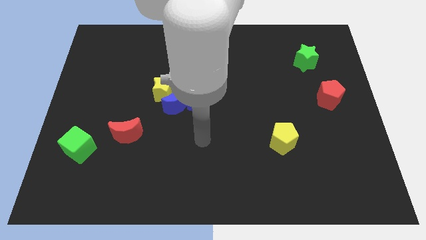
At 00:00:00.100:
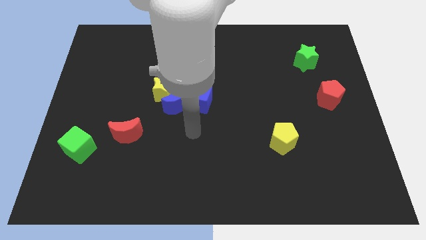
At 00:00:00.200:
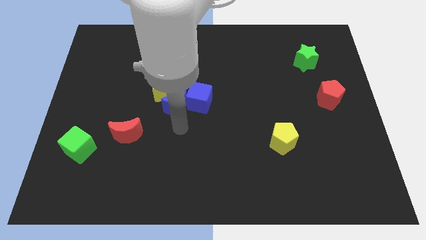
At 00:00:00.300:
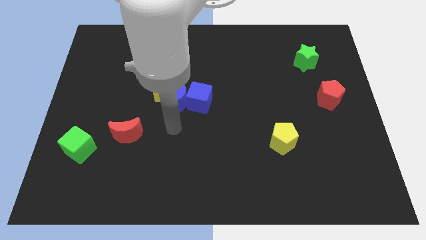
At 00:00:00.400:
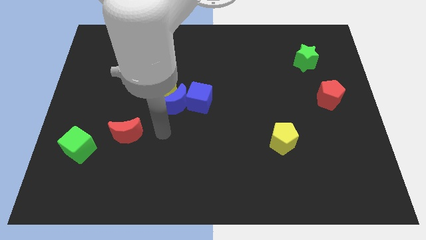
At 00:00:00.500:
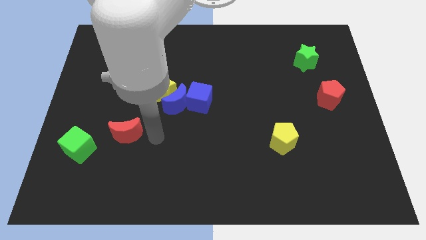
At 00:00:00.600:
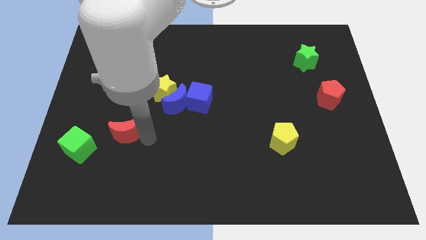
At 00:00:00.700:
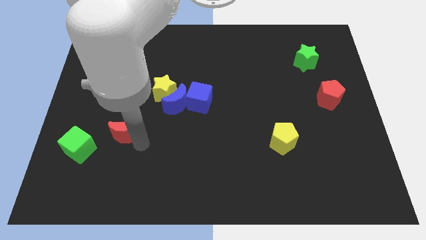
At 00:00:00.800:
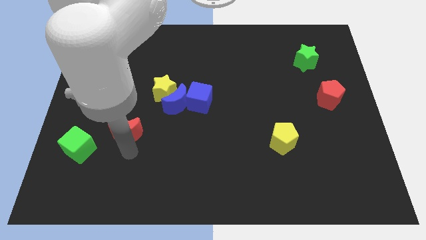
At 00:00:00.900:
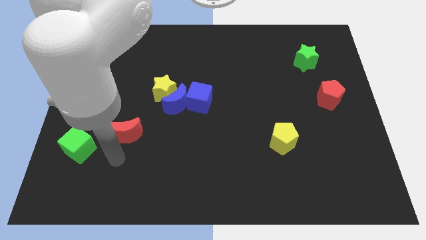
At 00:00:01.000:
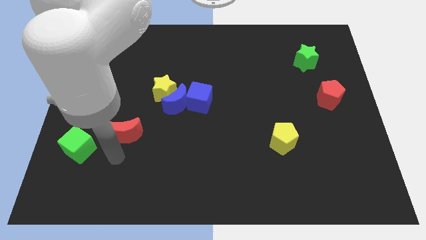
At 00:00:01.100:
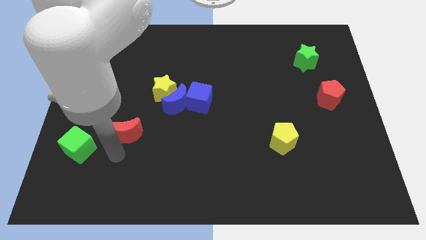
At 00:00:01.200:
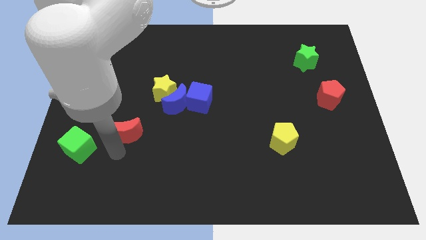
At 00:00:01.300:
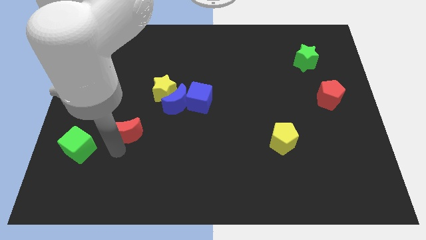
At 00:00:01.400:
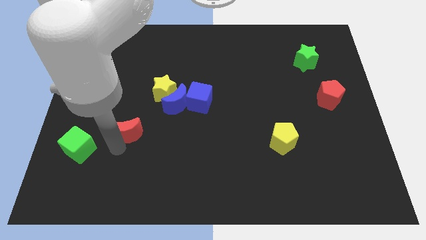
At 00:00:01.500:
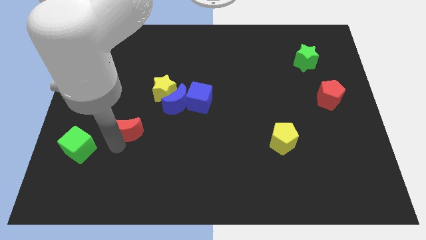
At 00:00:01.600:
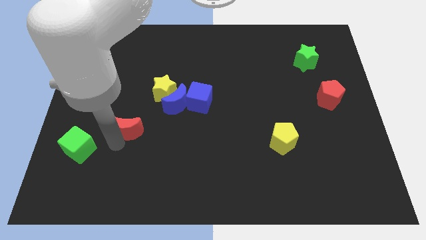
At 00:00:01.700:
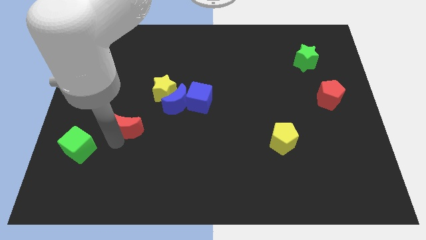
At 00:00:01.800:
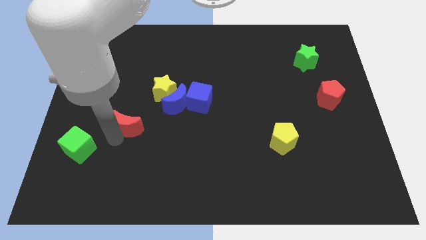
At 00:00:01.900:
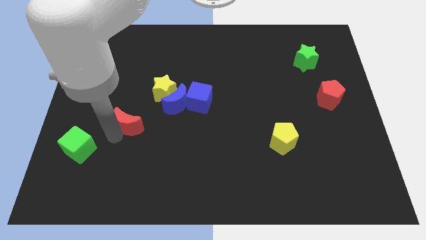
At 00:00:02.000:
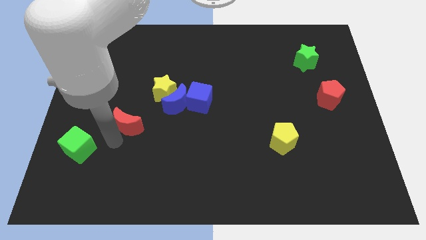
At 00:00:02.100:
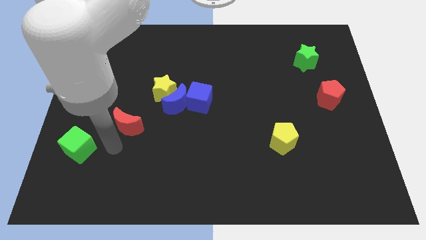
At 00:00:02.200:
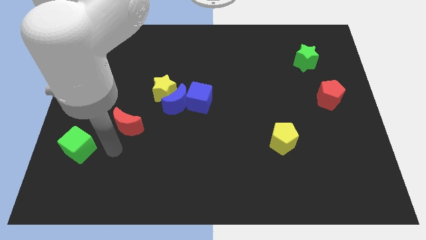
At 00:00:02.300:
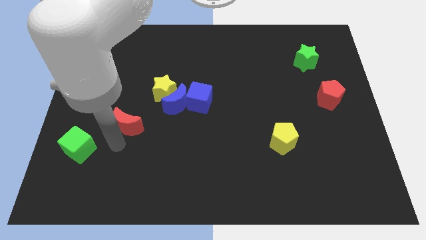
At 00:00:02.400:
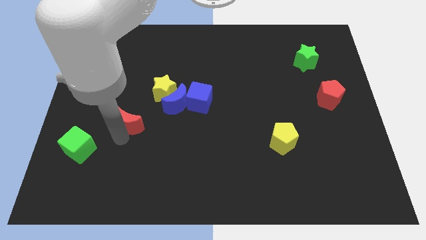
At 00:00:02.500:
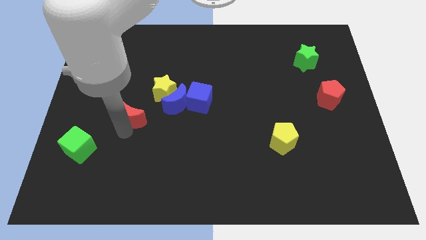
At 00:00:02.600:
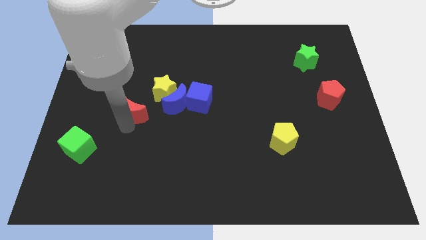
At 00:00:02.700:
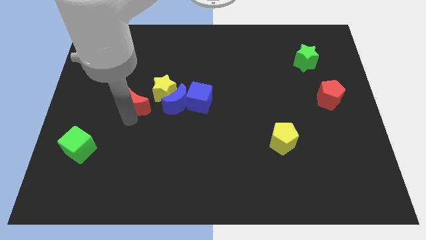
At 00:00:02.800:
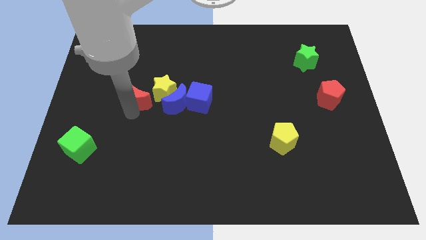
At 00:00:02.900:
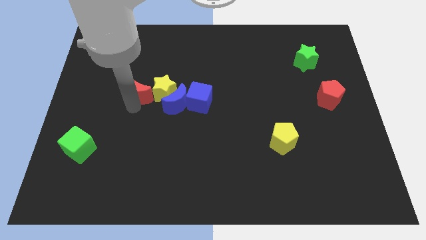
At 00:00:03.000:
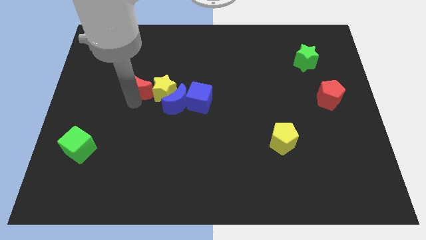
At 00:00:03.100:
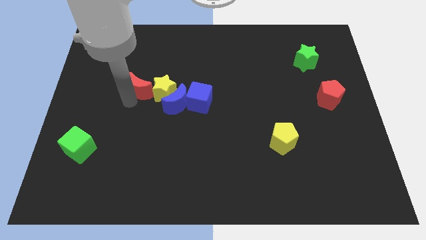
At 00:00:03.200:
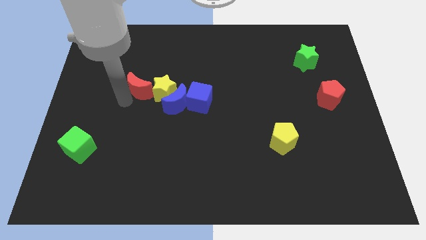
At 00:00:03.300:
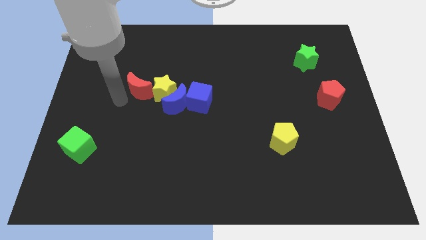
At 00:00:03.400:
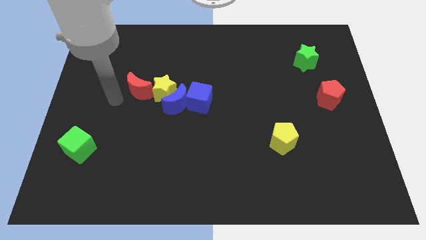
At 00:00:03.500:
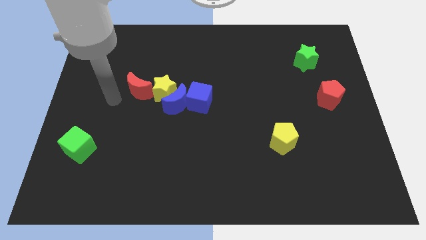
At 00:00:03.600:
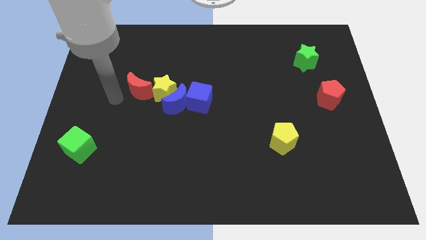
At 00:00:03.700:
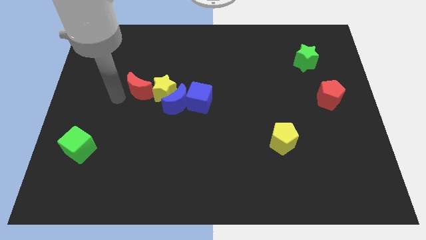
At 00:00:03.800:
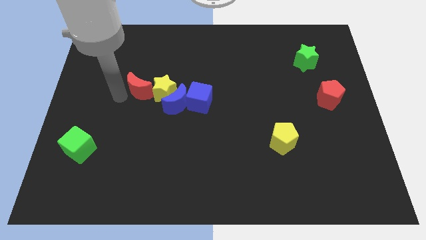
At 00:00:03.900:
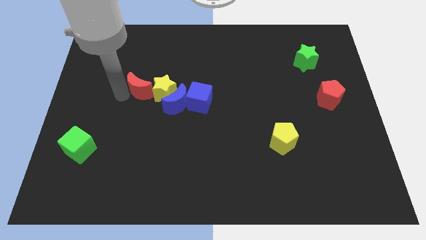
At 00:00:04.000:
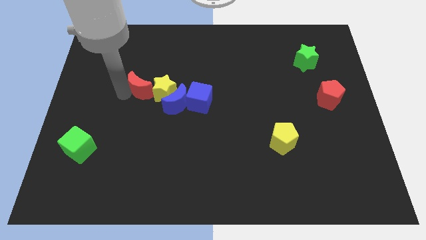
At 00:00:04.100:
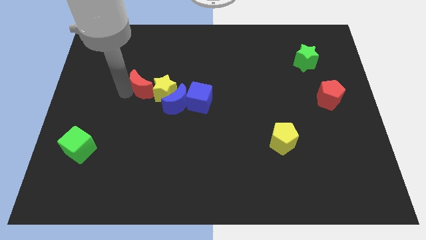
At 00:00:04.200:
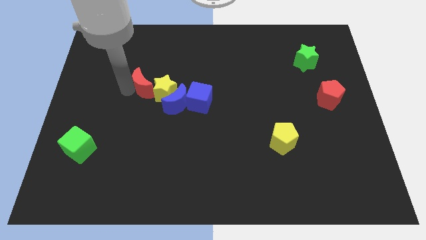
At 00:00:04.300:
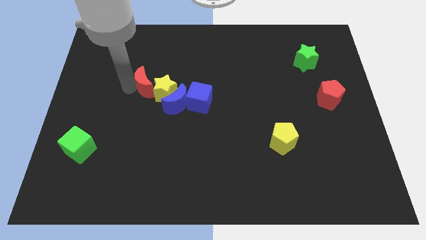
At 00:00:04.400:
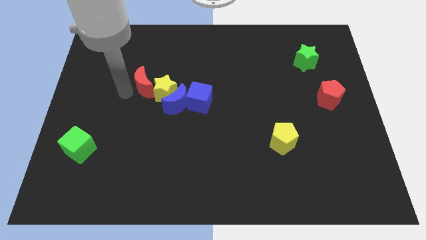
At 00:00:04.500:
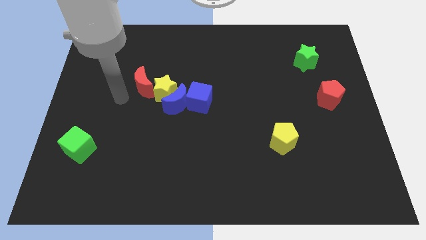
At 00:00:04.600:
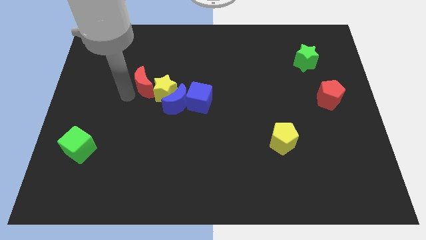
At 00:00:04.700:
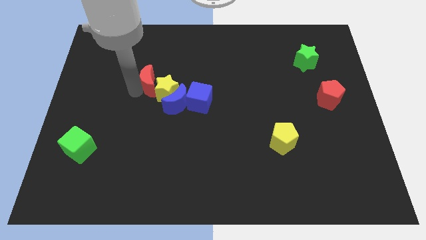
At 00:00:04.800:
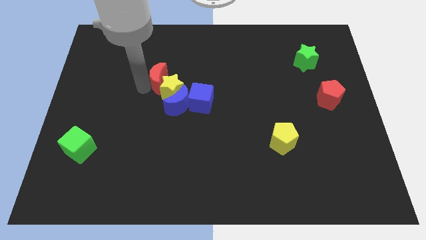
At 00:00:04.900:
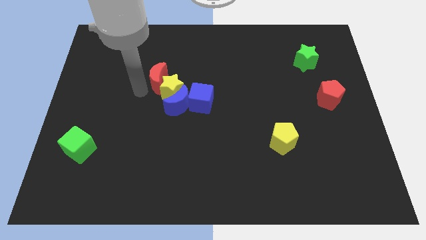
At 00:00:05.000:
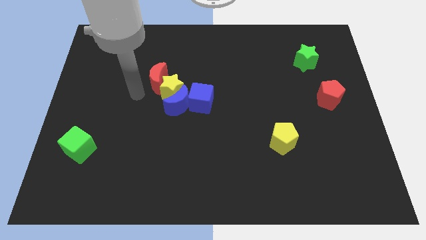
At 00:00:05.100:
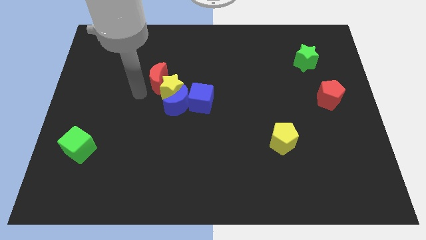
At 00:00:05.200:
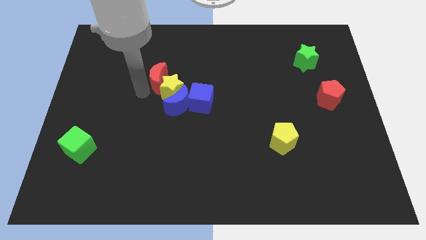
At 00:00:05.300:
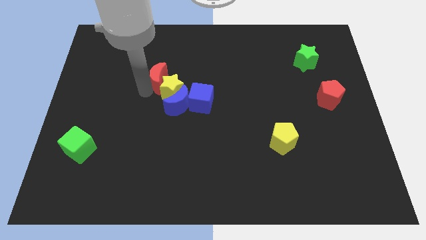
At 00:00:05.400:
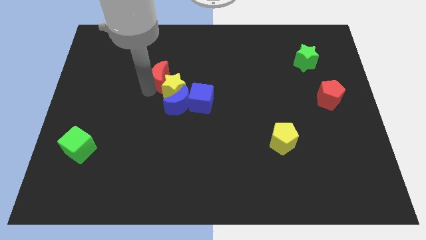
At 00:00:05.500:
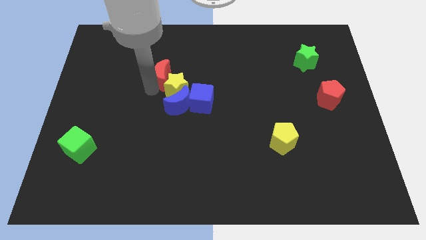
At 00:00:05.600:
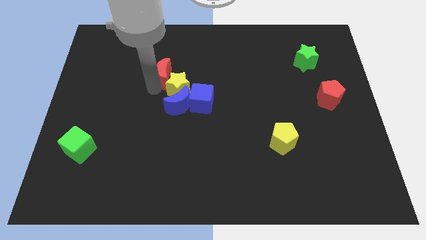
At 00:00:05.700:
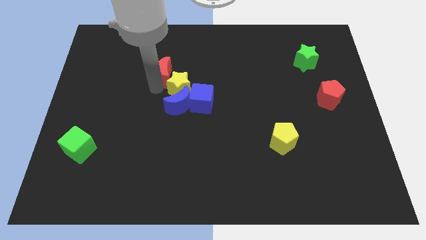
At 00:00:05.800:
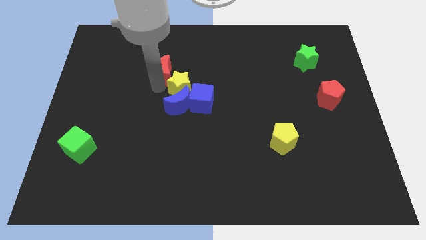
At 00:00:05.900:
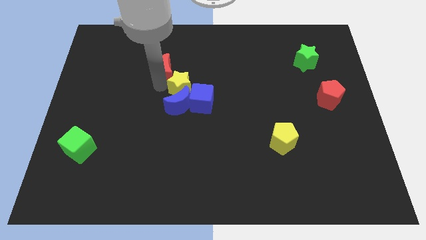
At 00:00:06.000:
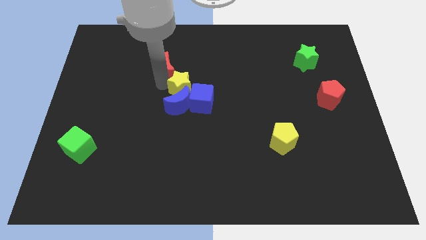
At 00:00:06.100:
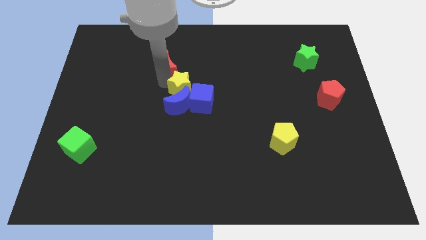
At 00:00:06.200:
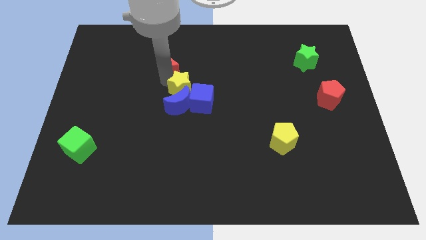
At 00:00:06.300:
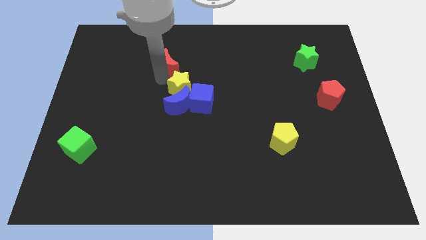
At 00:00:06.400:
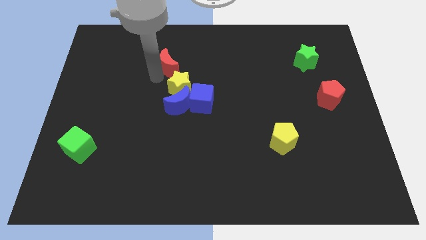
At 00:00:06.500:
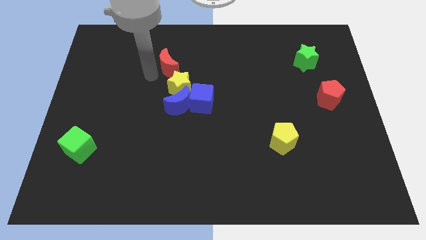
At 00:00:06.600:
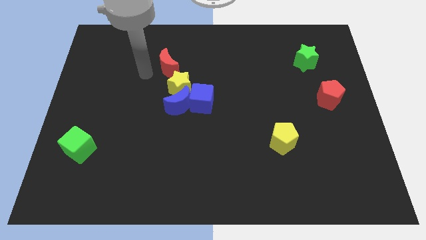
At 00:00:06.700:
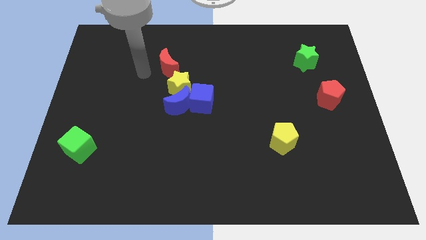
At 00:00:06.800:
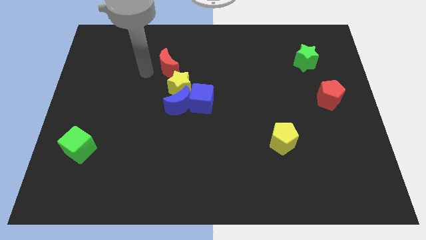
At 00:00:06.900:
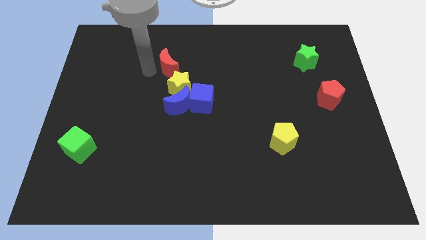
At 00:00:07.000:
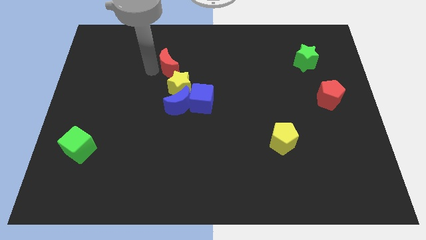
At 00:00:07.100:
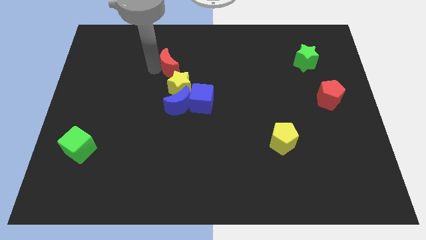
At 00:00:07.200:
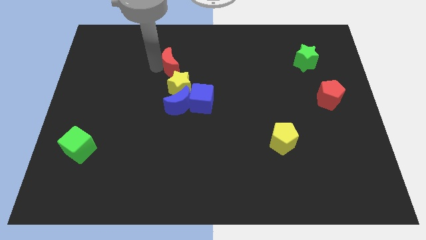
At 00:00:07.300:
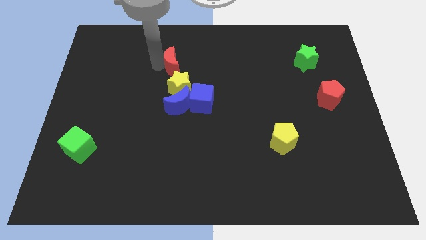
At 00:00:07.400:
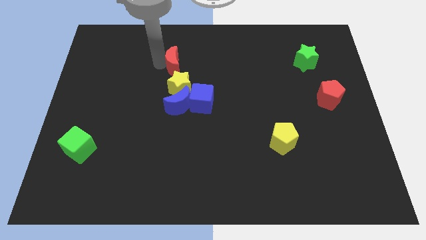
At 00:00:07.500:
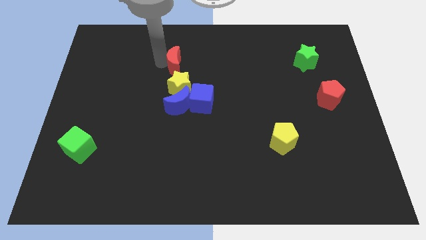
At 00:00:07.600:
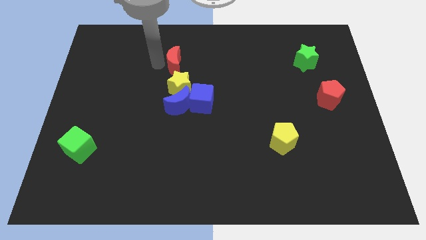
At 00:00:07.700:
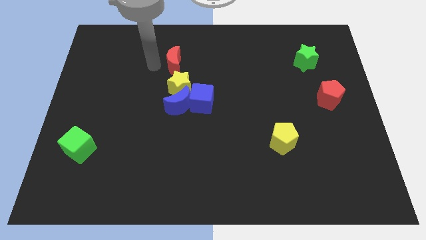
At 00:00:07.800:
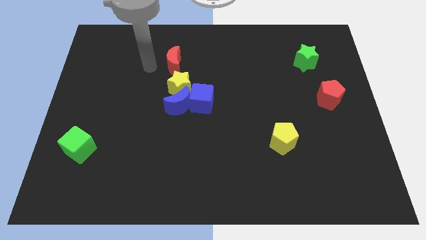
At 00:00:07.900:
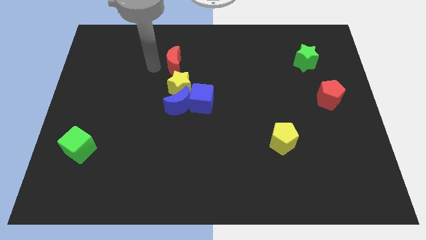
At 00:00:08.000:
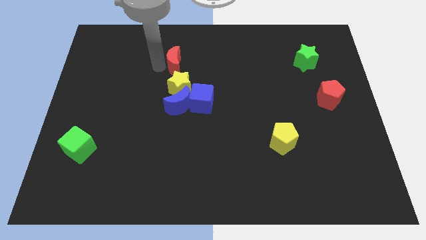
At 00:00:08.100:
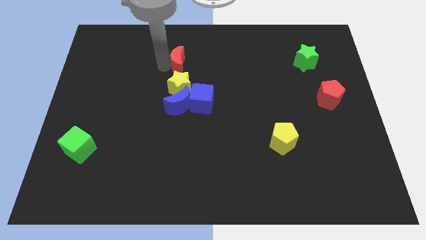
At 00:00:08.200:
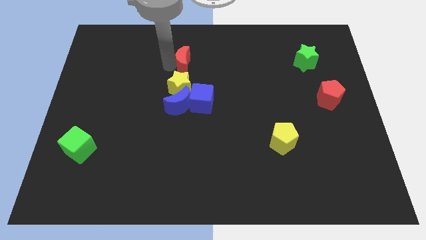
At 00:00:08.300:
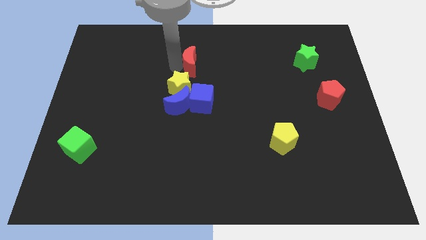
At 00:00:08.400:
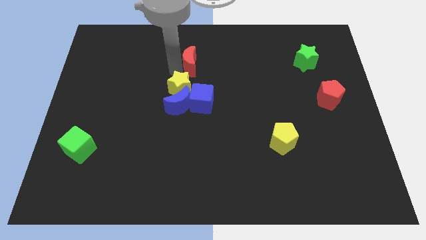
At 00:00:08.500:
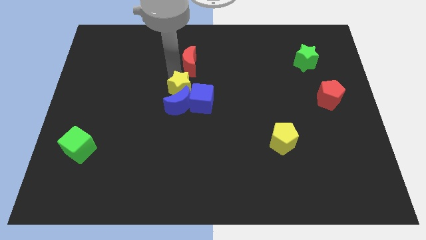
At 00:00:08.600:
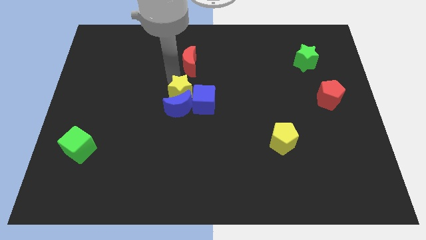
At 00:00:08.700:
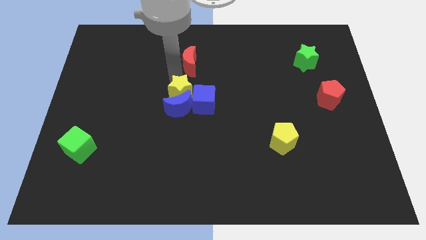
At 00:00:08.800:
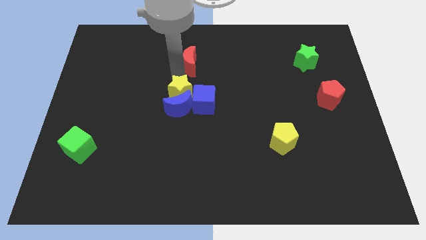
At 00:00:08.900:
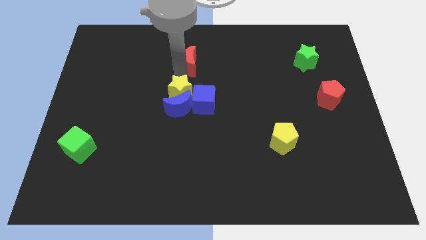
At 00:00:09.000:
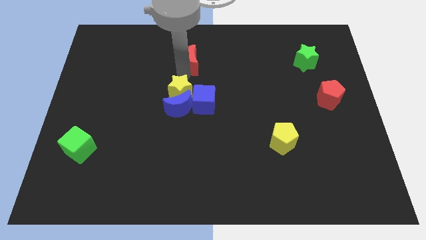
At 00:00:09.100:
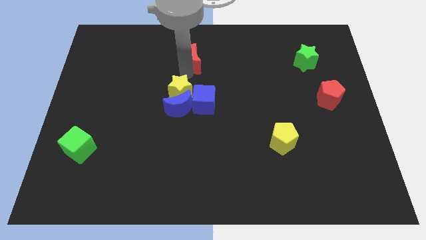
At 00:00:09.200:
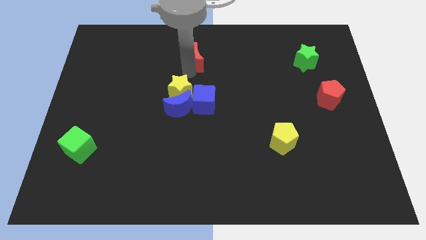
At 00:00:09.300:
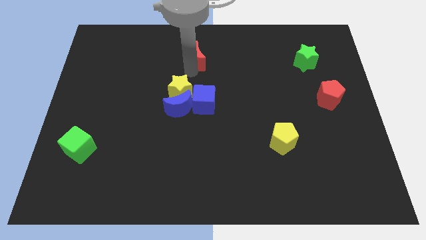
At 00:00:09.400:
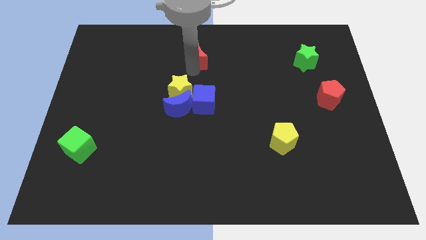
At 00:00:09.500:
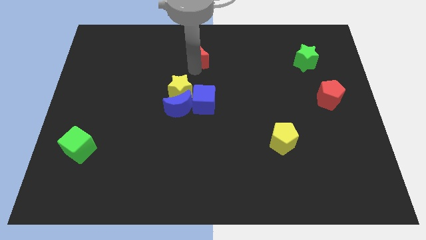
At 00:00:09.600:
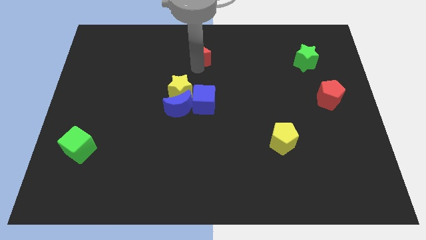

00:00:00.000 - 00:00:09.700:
put the red moon to the top
